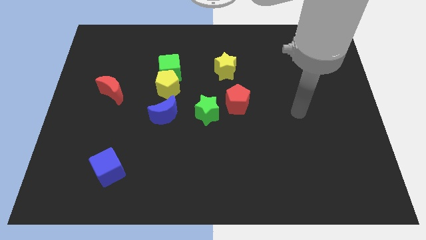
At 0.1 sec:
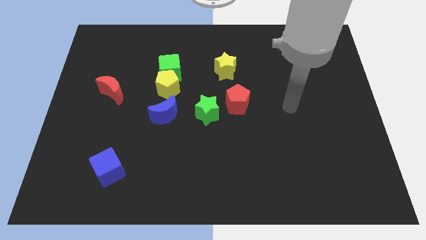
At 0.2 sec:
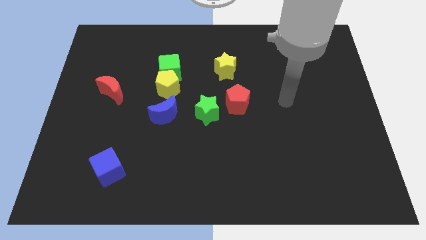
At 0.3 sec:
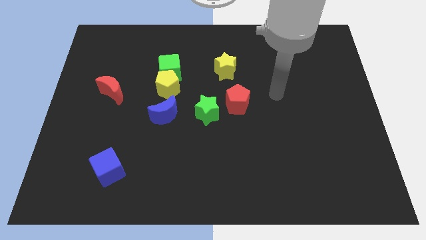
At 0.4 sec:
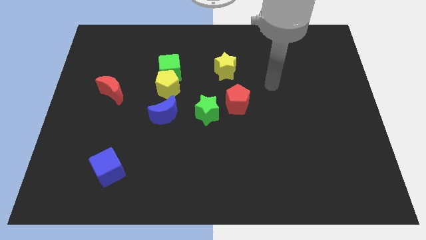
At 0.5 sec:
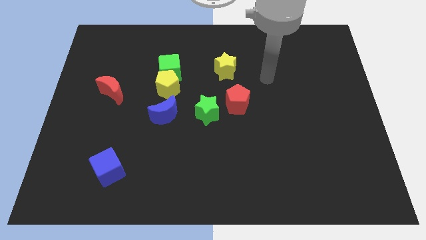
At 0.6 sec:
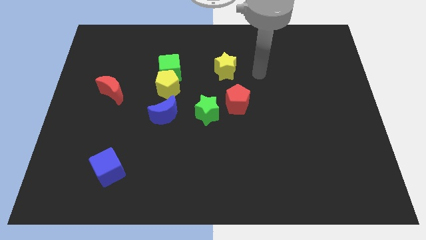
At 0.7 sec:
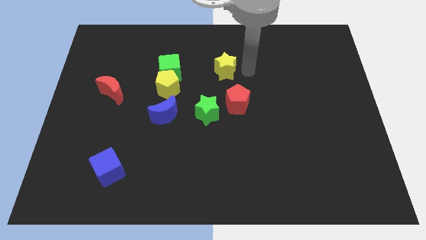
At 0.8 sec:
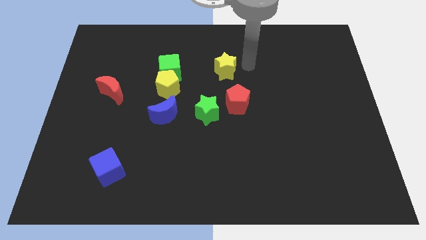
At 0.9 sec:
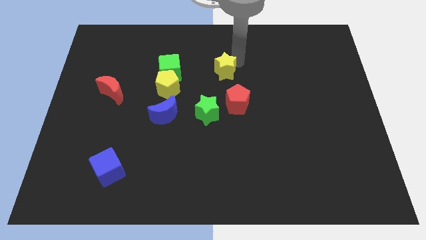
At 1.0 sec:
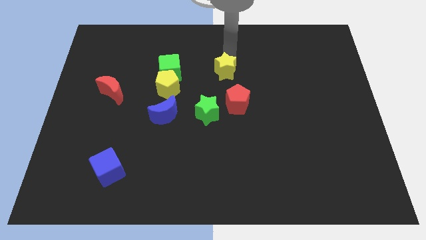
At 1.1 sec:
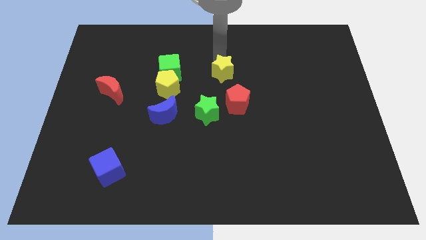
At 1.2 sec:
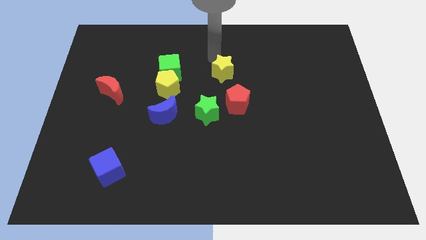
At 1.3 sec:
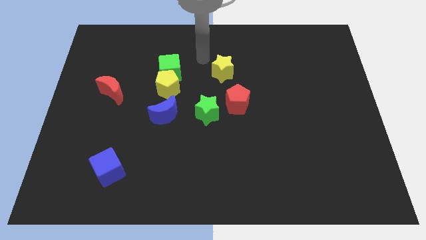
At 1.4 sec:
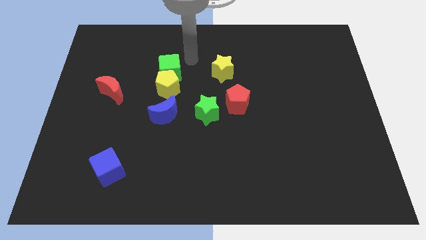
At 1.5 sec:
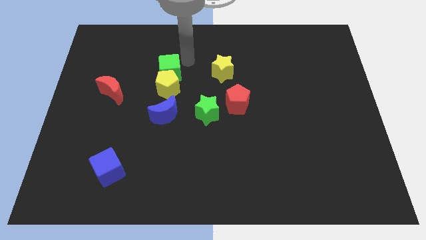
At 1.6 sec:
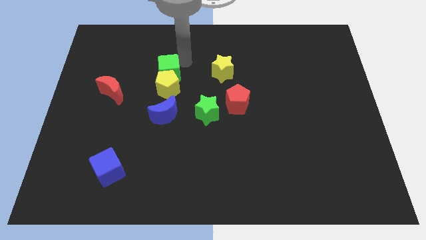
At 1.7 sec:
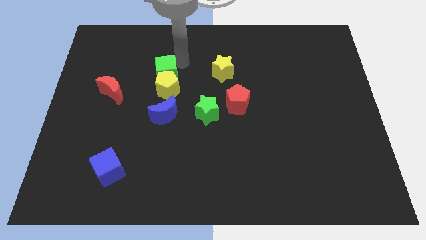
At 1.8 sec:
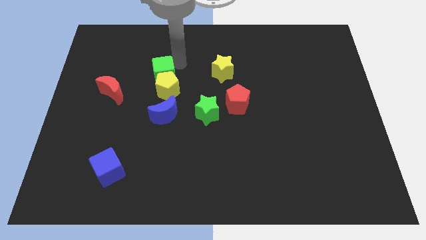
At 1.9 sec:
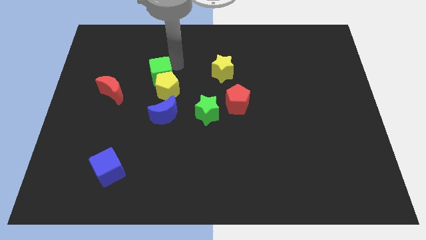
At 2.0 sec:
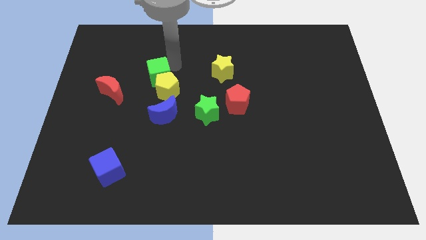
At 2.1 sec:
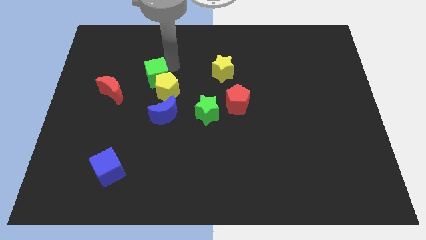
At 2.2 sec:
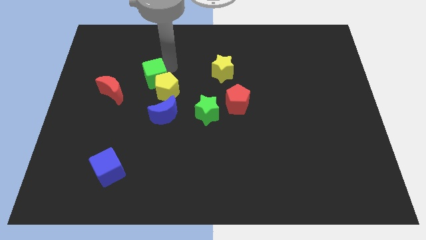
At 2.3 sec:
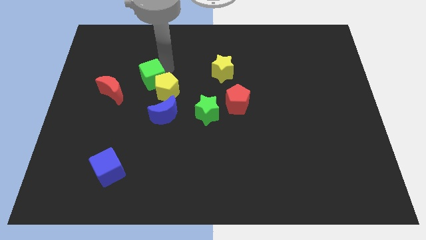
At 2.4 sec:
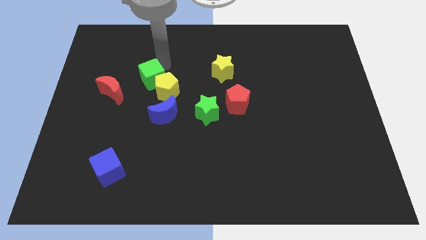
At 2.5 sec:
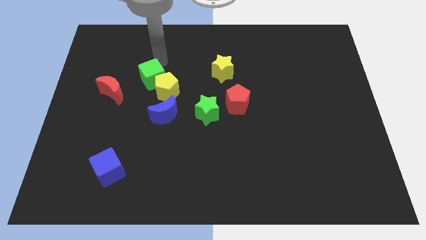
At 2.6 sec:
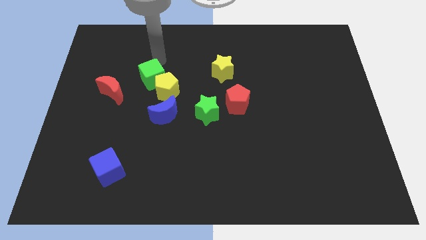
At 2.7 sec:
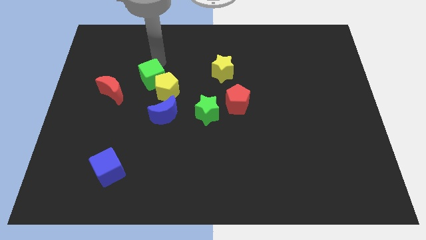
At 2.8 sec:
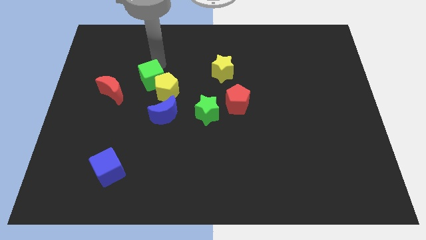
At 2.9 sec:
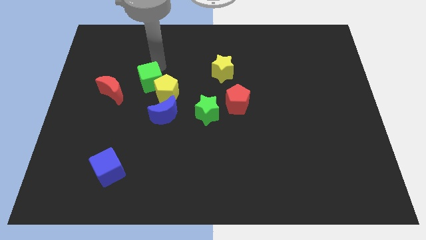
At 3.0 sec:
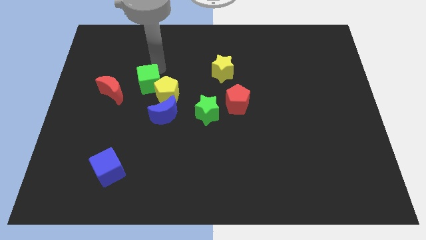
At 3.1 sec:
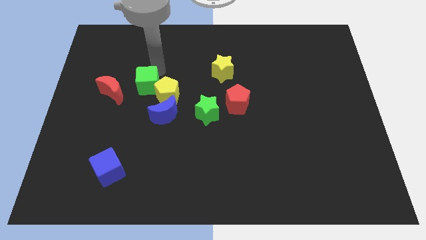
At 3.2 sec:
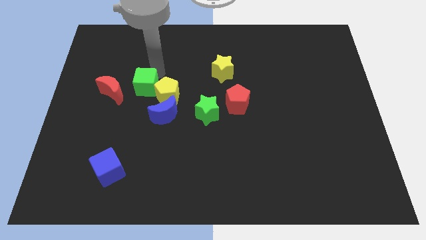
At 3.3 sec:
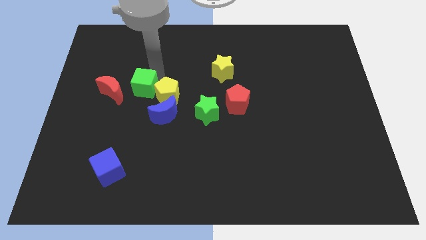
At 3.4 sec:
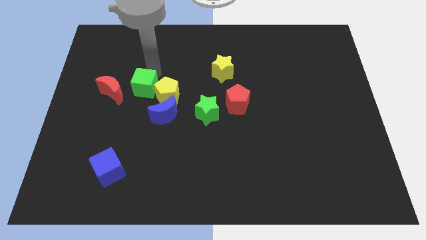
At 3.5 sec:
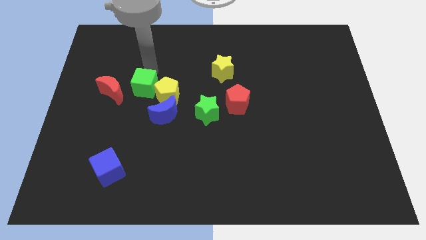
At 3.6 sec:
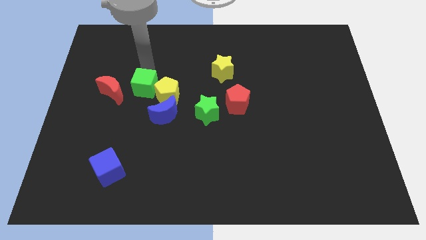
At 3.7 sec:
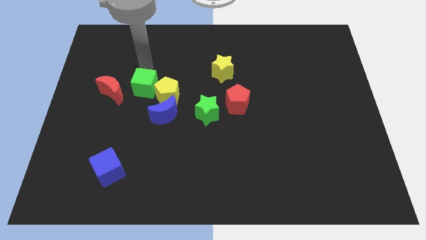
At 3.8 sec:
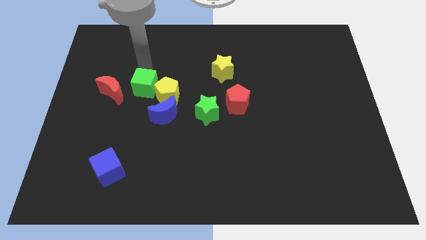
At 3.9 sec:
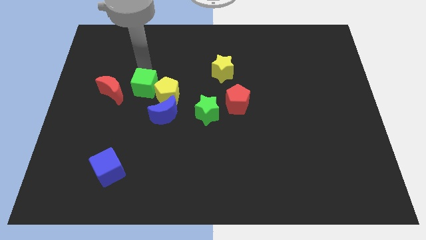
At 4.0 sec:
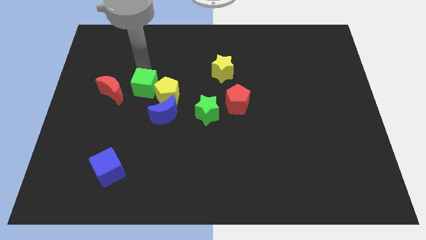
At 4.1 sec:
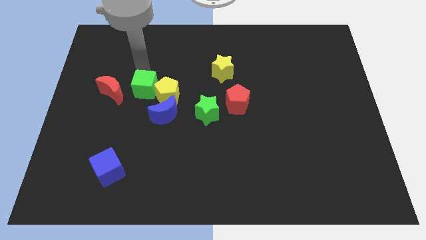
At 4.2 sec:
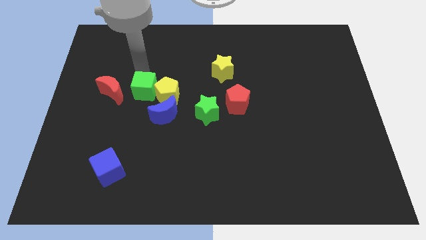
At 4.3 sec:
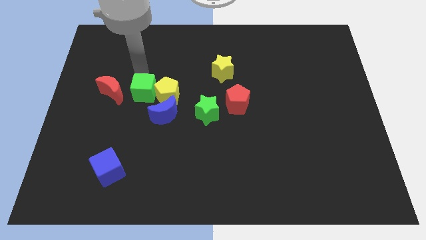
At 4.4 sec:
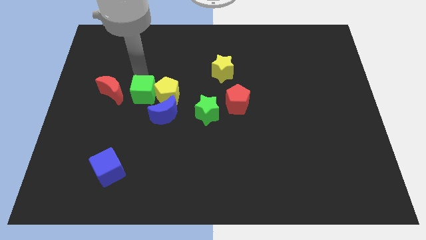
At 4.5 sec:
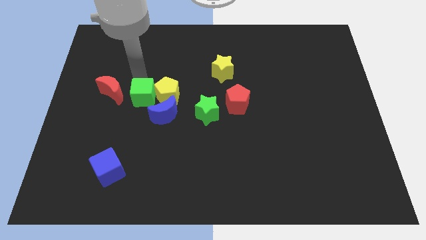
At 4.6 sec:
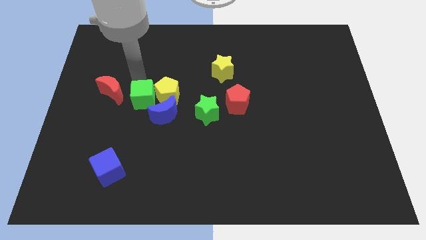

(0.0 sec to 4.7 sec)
push the green cube slightly down

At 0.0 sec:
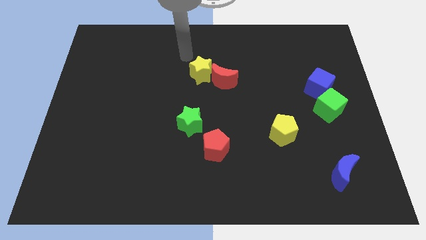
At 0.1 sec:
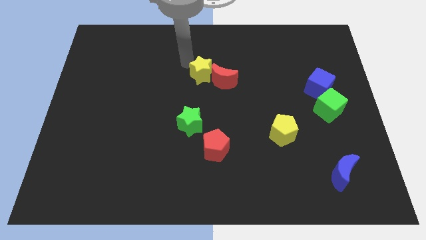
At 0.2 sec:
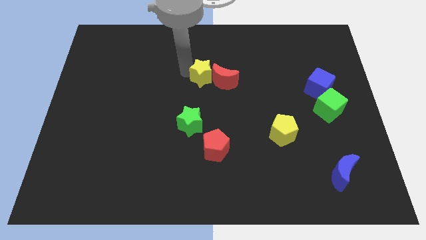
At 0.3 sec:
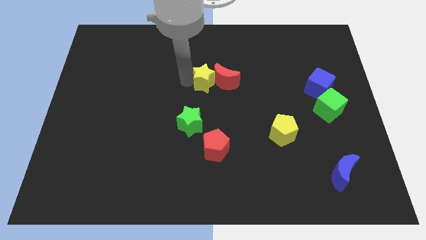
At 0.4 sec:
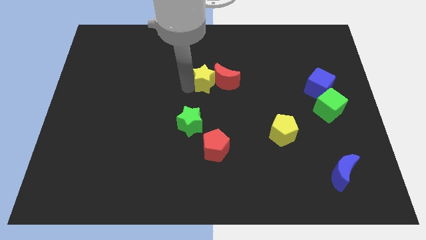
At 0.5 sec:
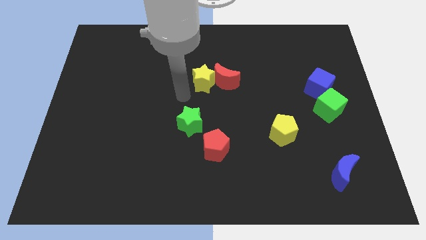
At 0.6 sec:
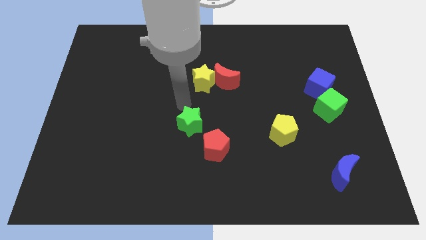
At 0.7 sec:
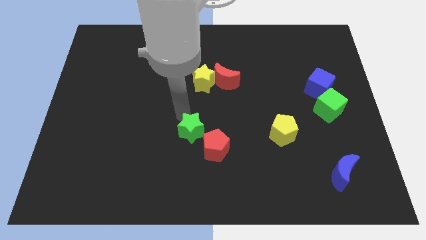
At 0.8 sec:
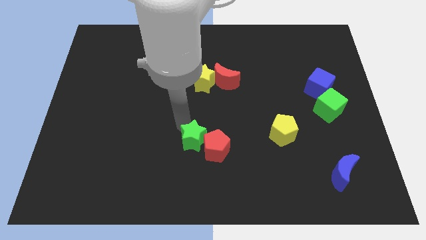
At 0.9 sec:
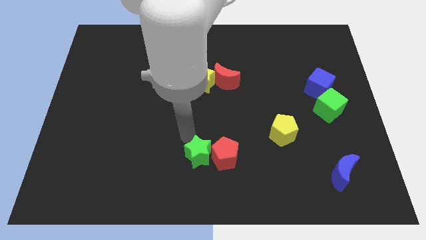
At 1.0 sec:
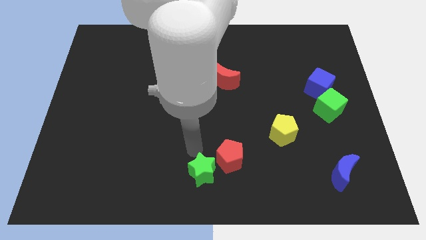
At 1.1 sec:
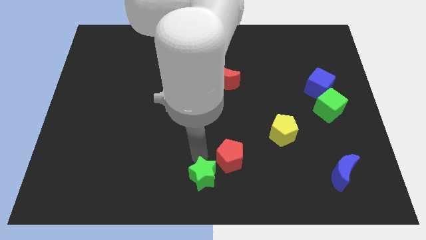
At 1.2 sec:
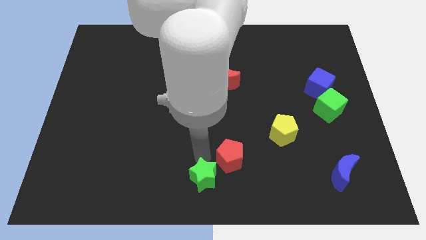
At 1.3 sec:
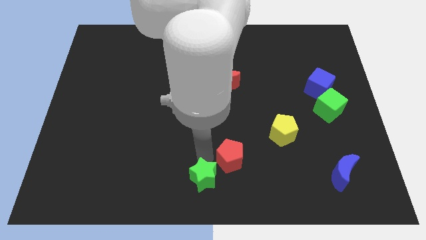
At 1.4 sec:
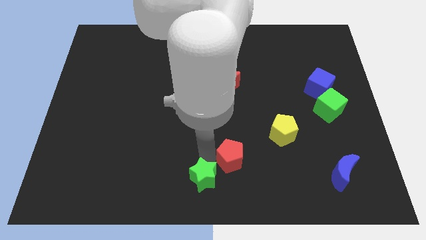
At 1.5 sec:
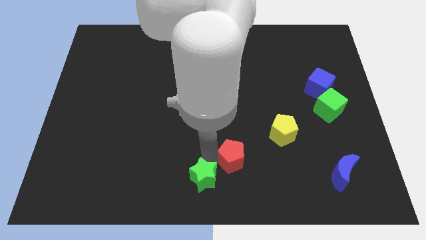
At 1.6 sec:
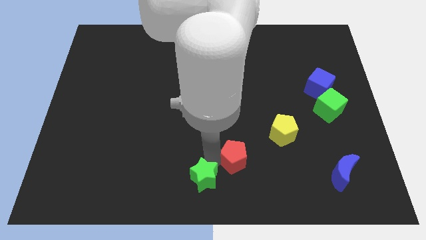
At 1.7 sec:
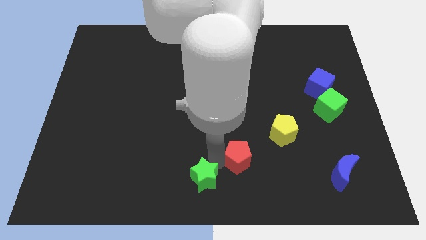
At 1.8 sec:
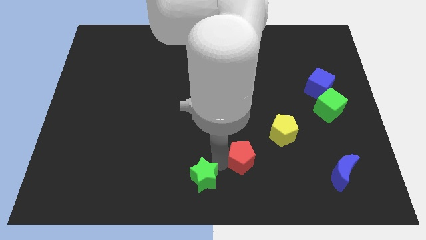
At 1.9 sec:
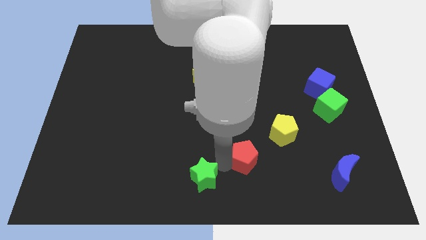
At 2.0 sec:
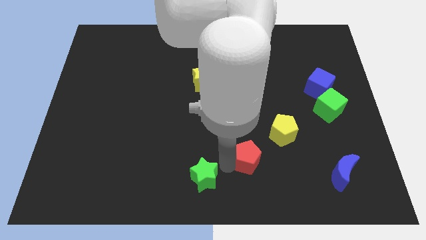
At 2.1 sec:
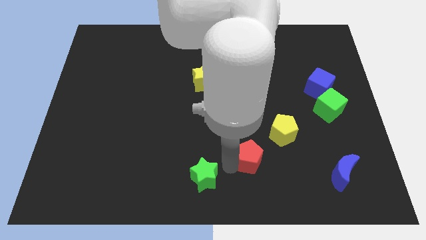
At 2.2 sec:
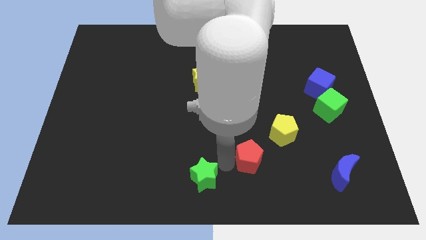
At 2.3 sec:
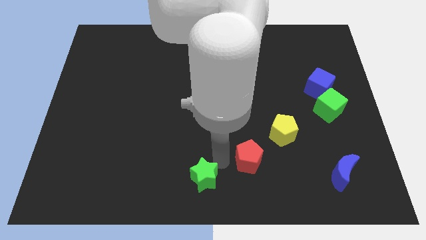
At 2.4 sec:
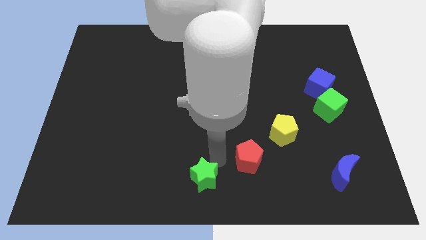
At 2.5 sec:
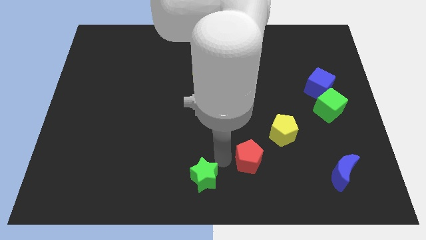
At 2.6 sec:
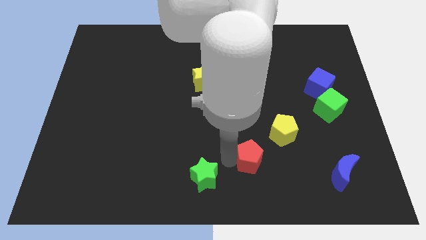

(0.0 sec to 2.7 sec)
slightly slide the red pentagon right

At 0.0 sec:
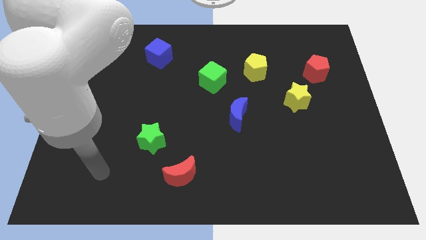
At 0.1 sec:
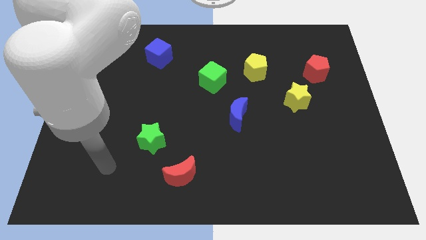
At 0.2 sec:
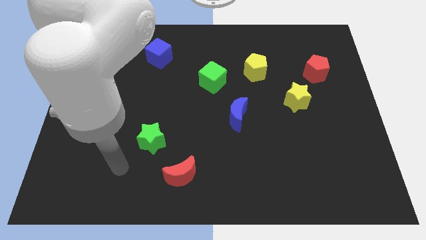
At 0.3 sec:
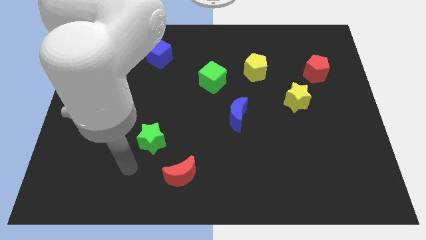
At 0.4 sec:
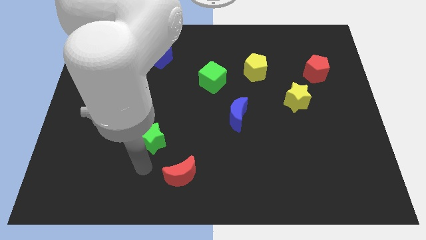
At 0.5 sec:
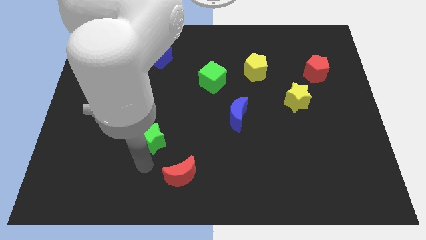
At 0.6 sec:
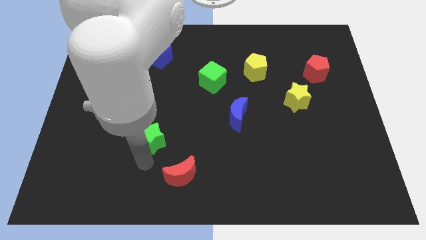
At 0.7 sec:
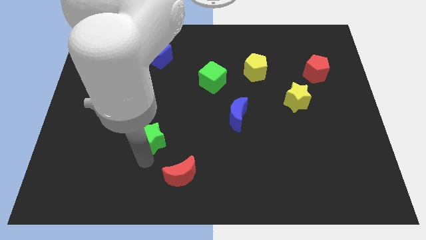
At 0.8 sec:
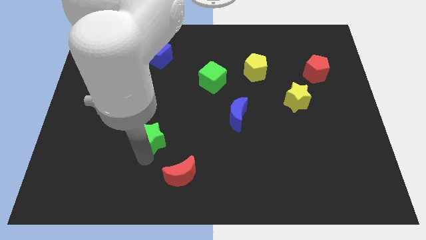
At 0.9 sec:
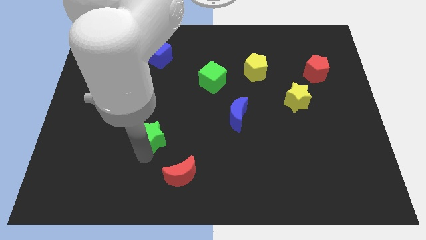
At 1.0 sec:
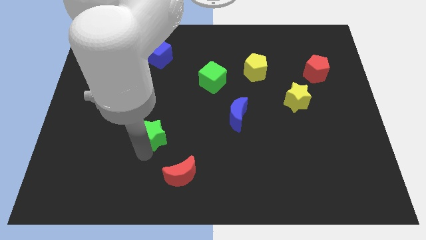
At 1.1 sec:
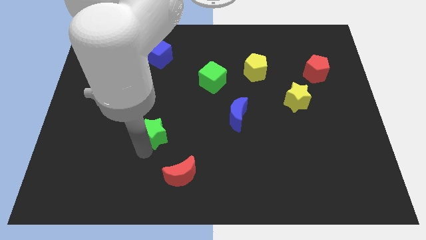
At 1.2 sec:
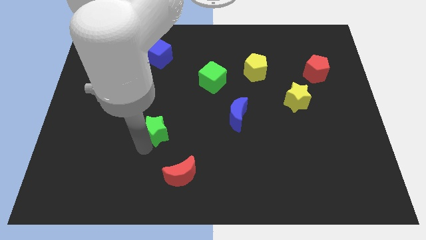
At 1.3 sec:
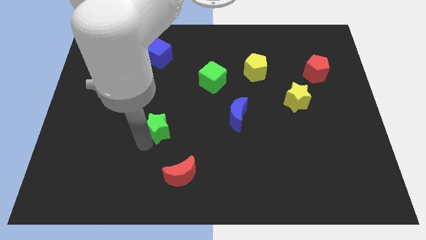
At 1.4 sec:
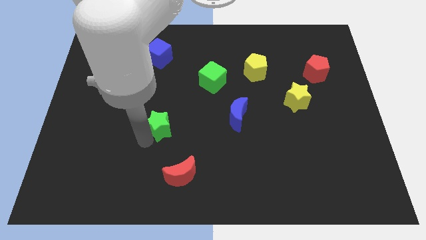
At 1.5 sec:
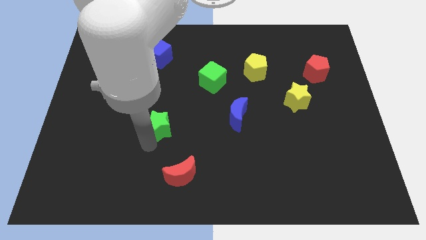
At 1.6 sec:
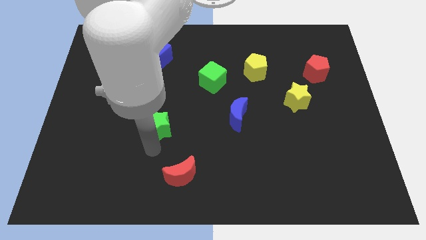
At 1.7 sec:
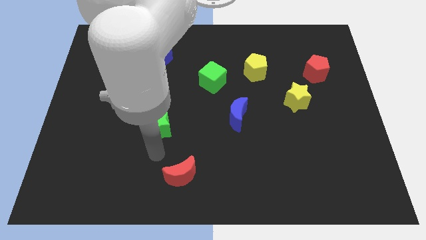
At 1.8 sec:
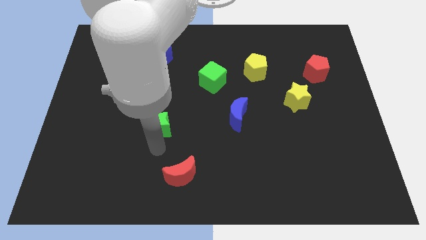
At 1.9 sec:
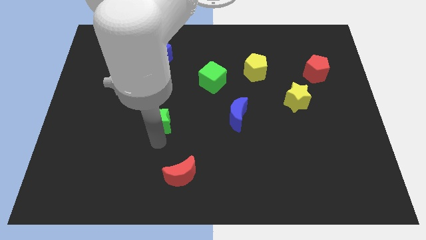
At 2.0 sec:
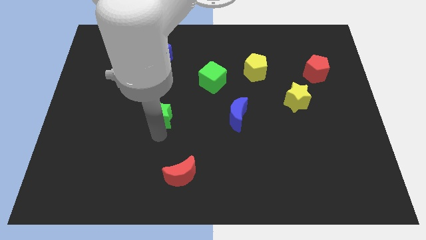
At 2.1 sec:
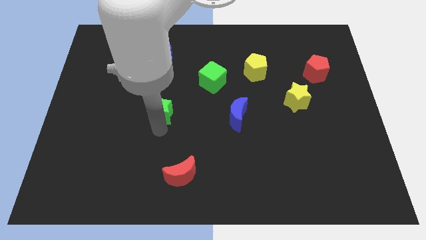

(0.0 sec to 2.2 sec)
slide the green star somewhat up
